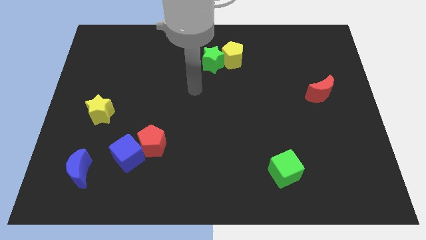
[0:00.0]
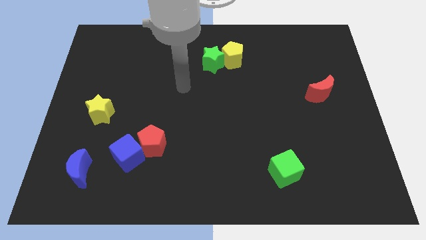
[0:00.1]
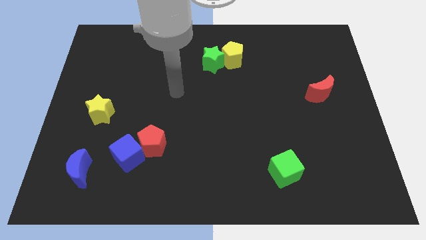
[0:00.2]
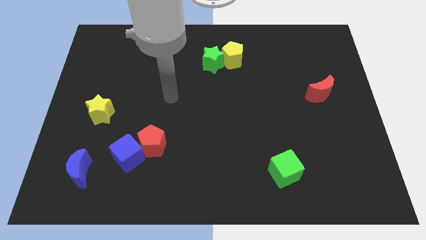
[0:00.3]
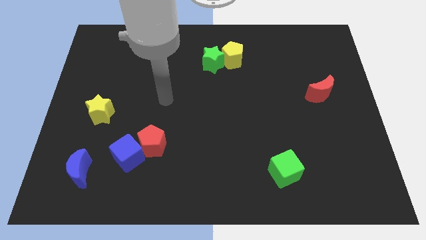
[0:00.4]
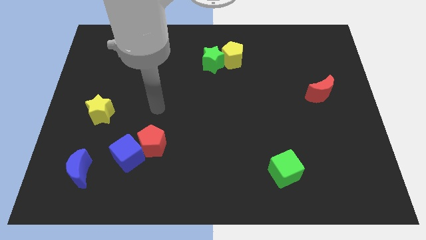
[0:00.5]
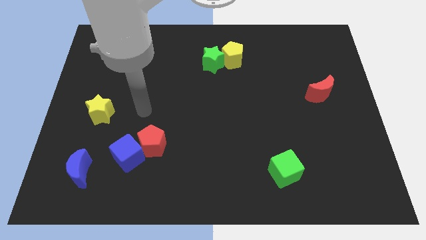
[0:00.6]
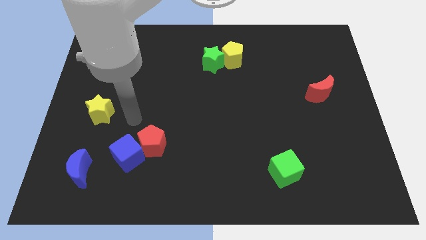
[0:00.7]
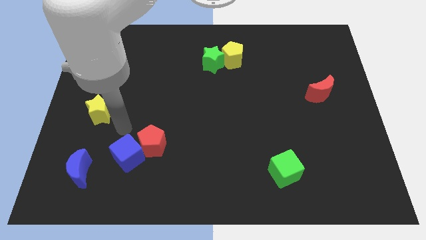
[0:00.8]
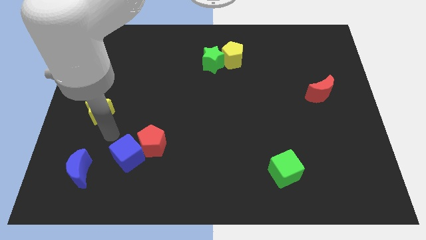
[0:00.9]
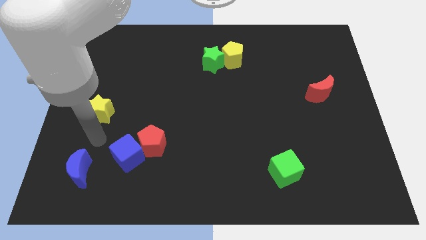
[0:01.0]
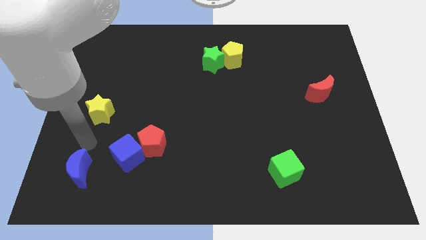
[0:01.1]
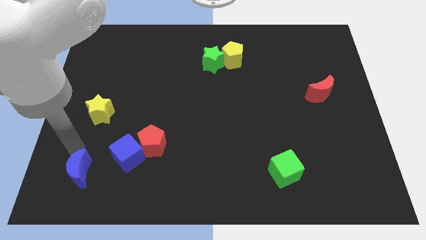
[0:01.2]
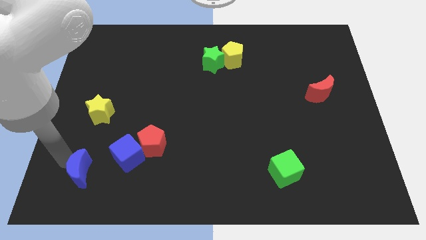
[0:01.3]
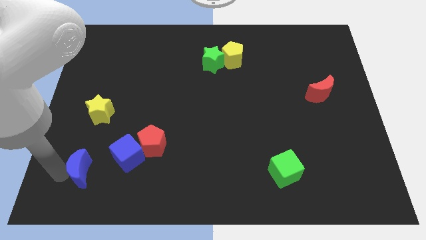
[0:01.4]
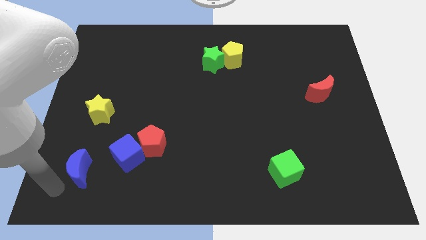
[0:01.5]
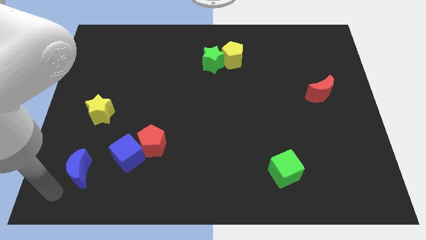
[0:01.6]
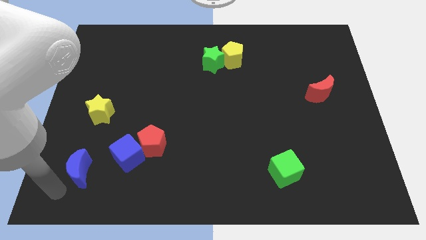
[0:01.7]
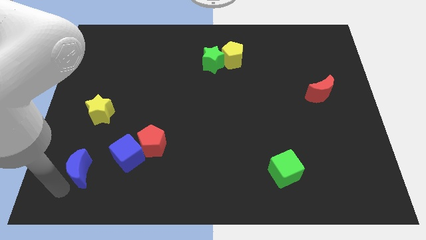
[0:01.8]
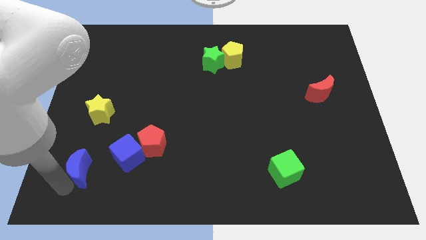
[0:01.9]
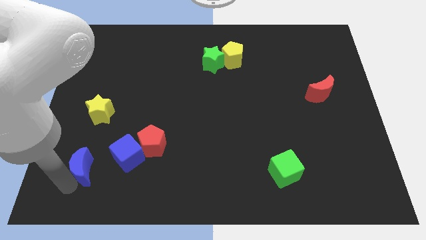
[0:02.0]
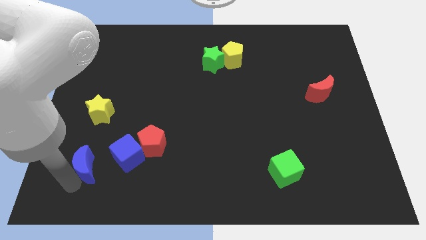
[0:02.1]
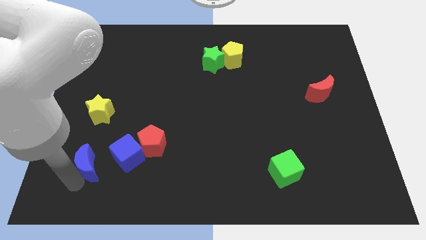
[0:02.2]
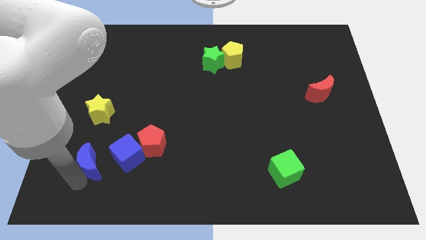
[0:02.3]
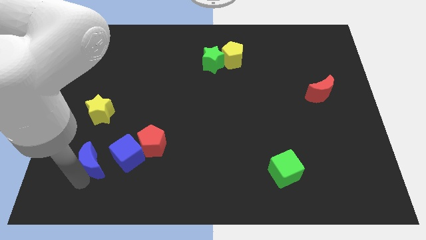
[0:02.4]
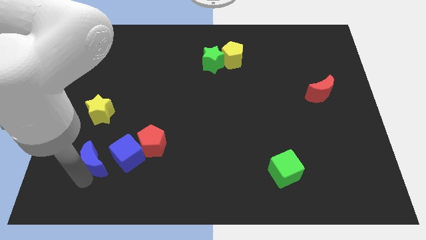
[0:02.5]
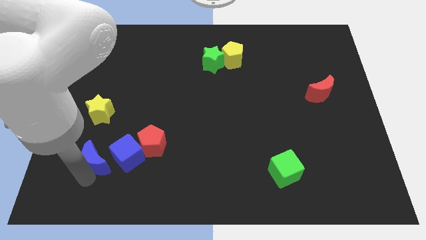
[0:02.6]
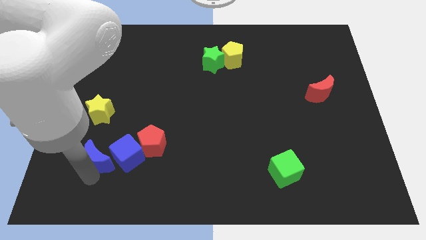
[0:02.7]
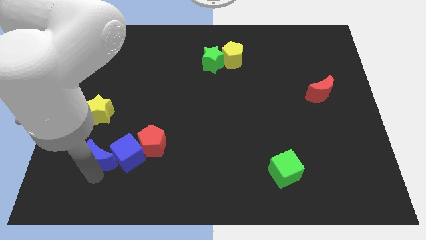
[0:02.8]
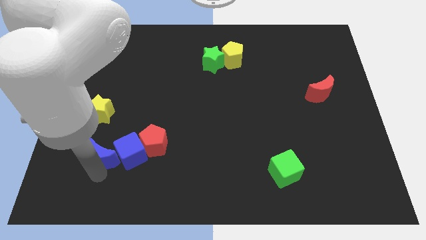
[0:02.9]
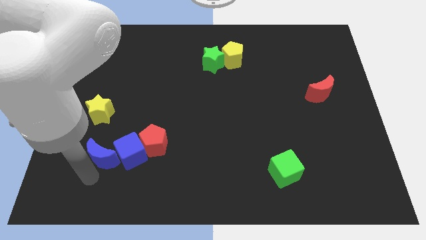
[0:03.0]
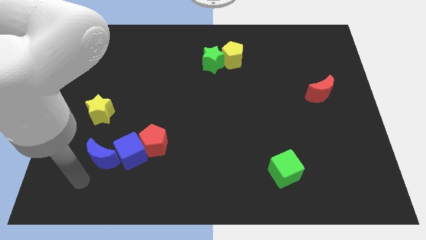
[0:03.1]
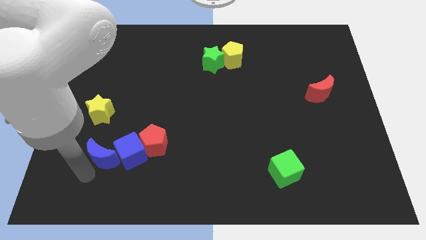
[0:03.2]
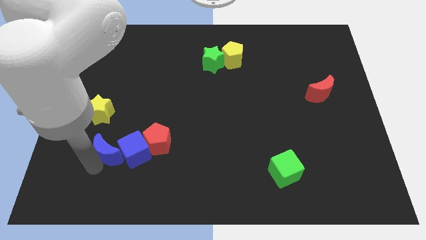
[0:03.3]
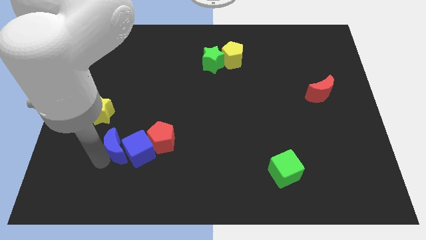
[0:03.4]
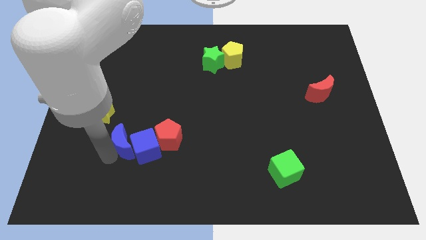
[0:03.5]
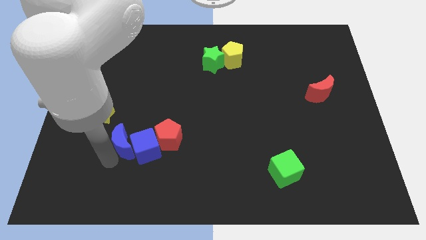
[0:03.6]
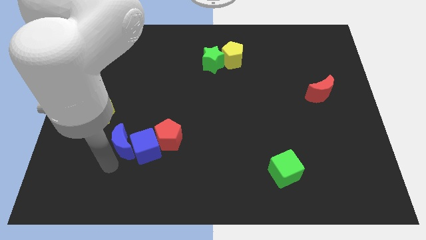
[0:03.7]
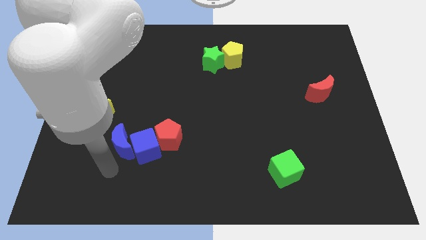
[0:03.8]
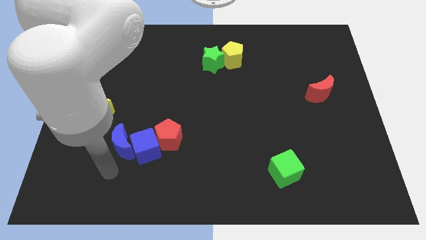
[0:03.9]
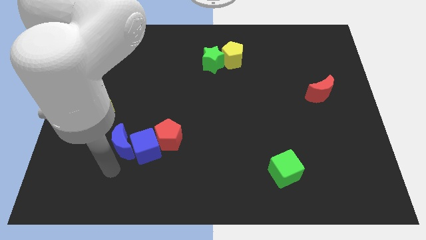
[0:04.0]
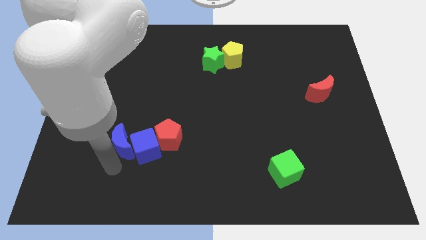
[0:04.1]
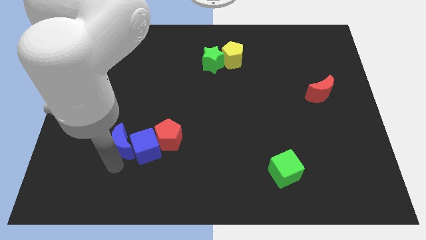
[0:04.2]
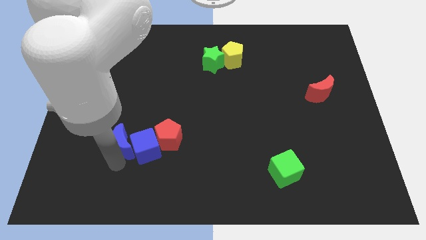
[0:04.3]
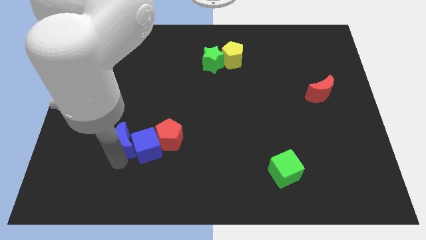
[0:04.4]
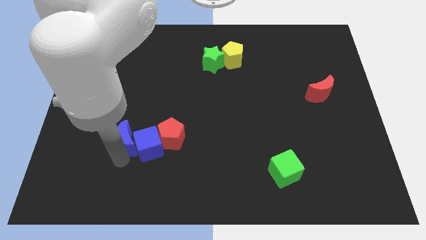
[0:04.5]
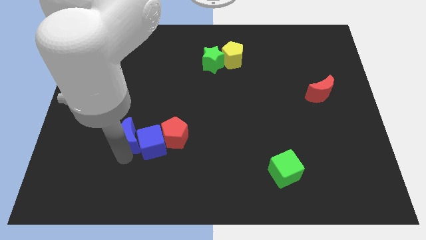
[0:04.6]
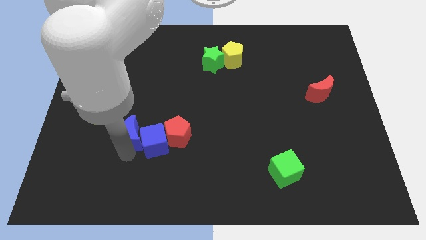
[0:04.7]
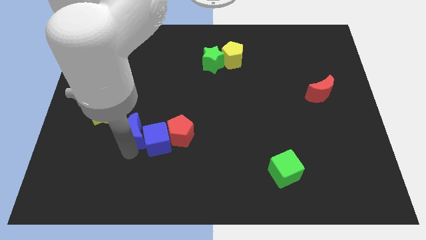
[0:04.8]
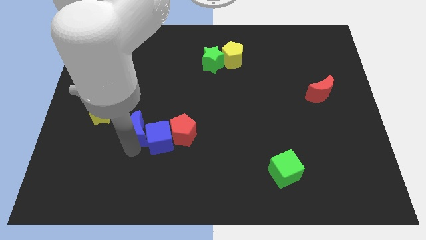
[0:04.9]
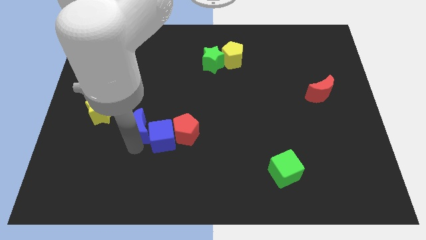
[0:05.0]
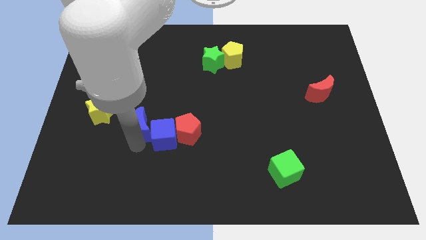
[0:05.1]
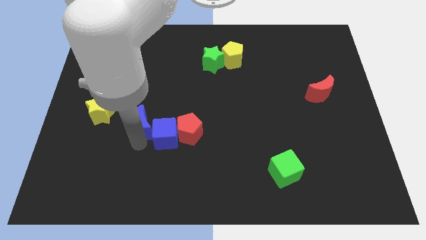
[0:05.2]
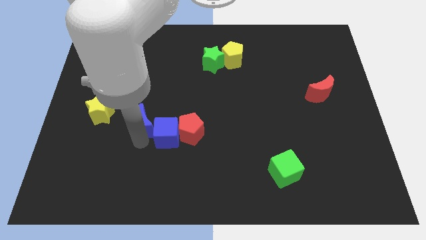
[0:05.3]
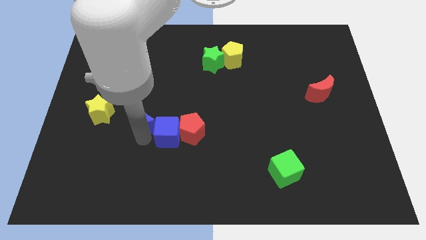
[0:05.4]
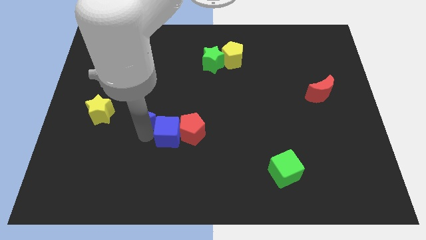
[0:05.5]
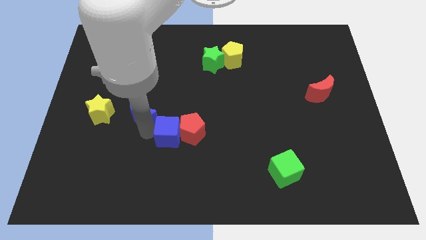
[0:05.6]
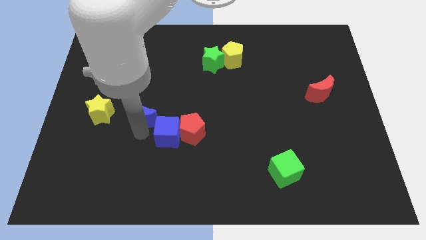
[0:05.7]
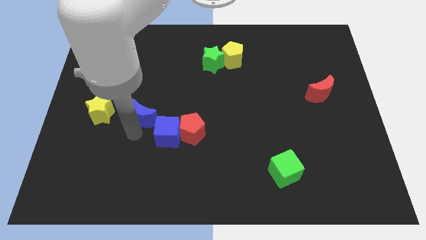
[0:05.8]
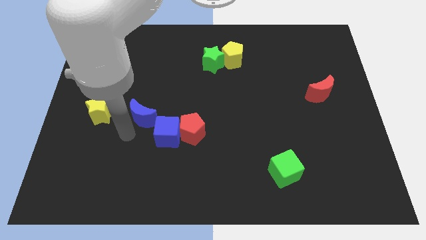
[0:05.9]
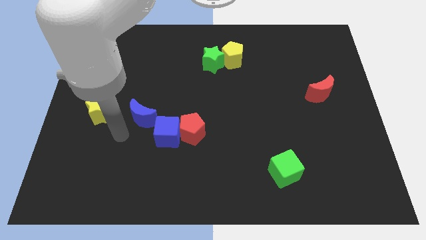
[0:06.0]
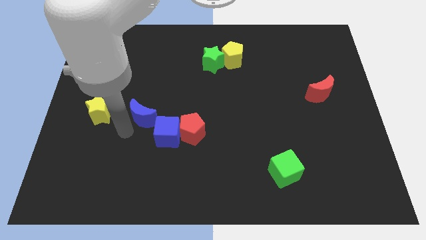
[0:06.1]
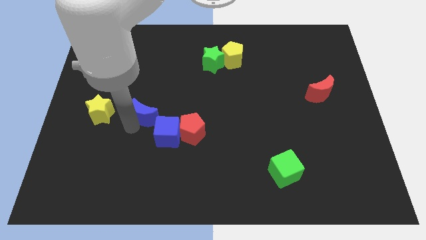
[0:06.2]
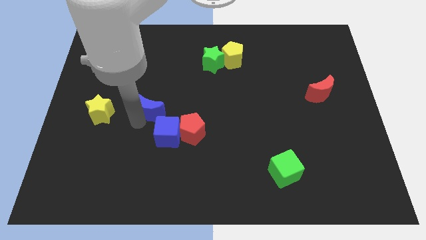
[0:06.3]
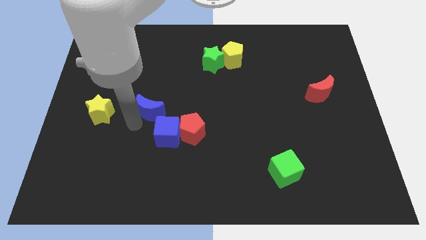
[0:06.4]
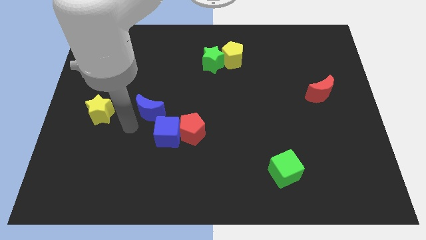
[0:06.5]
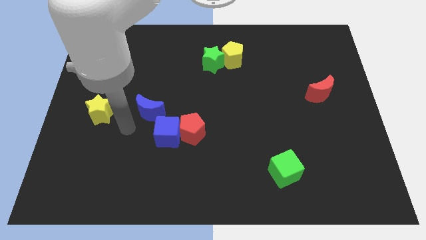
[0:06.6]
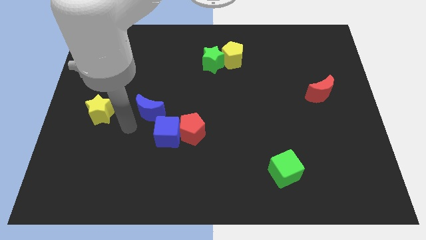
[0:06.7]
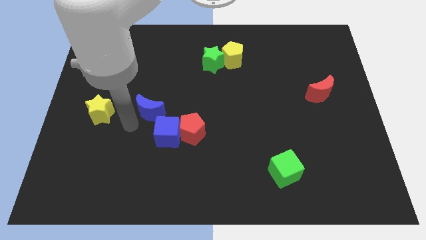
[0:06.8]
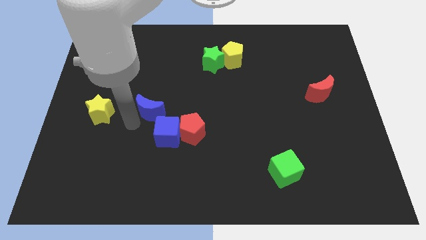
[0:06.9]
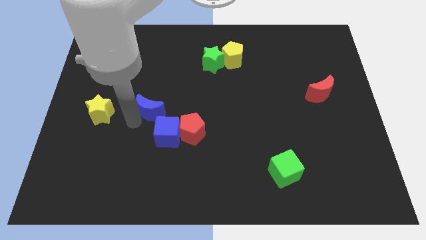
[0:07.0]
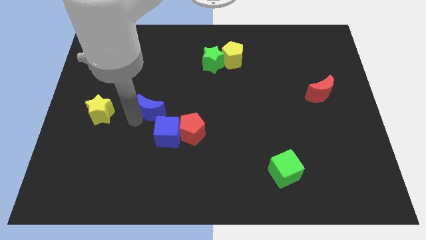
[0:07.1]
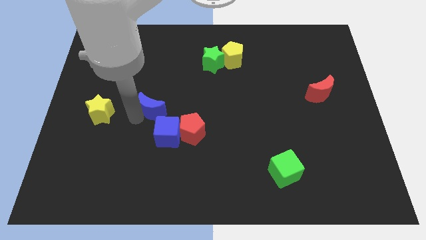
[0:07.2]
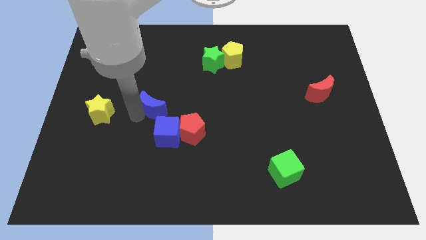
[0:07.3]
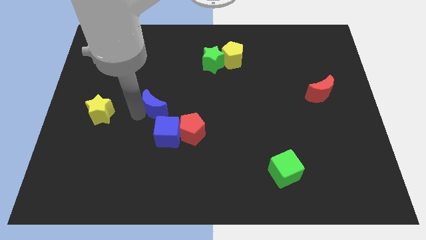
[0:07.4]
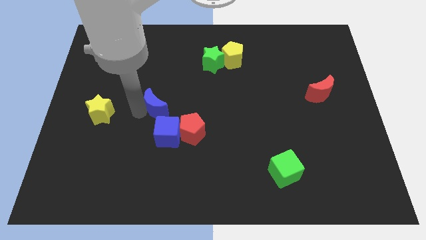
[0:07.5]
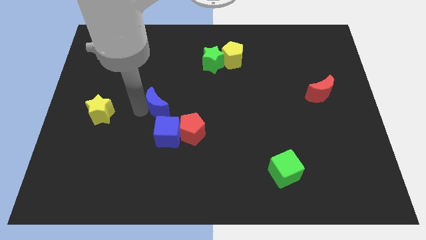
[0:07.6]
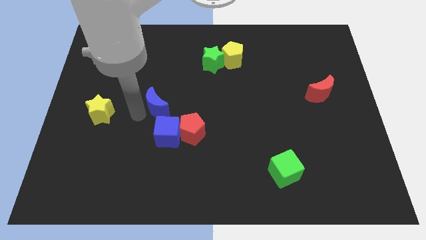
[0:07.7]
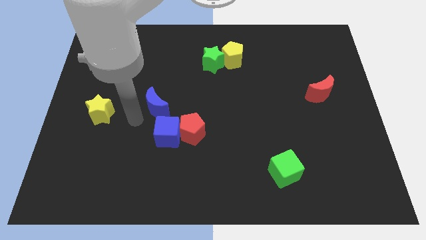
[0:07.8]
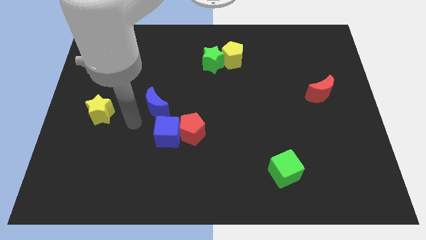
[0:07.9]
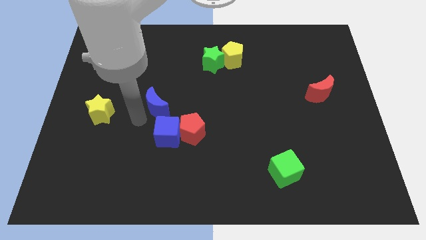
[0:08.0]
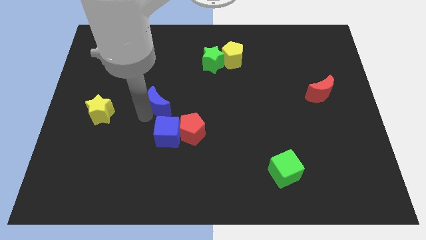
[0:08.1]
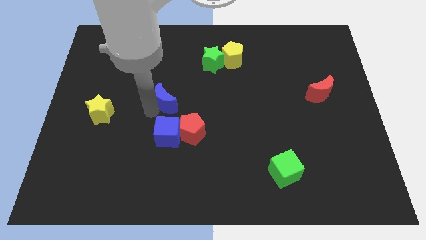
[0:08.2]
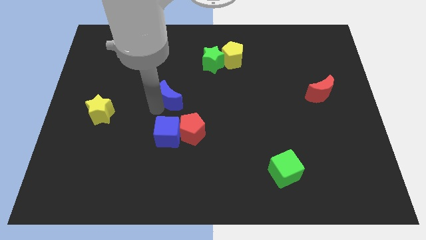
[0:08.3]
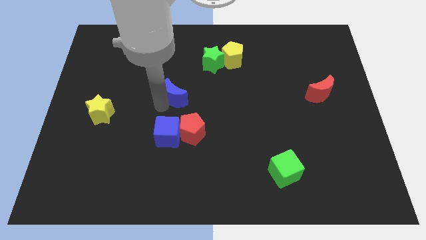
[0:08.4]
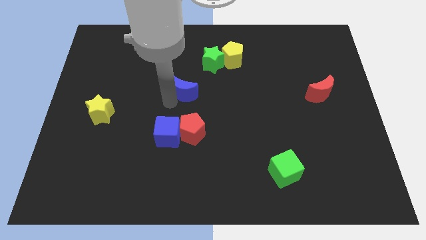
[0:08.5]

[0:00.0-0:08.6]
push the blue moon to the bottom left side of the green star
